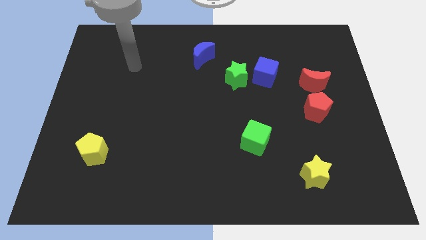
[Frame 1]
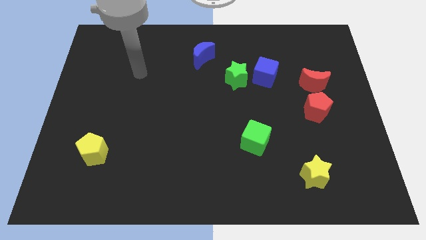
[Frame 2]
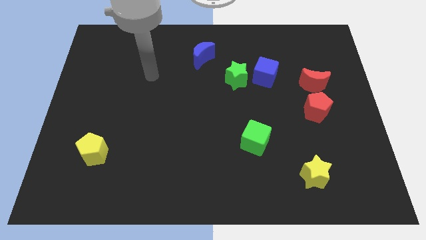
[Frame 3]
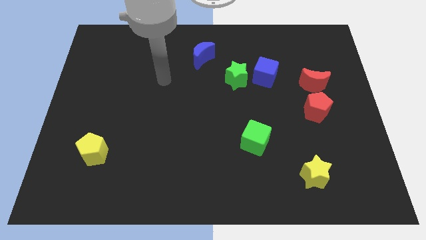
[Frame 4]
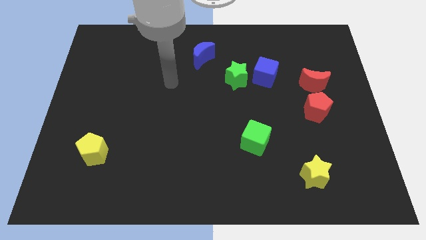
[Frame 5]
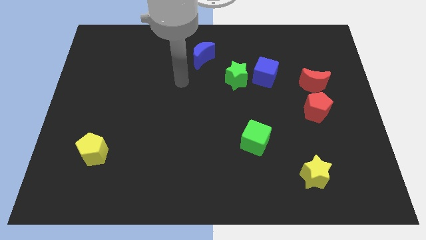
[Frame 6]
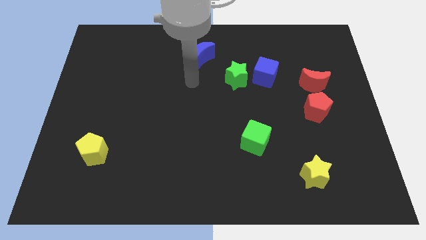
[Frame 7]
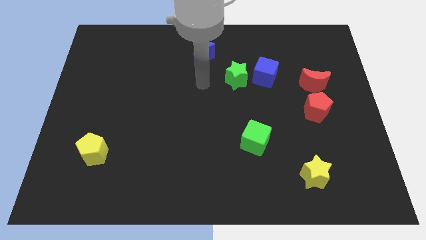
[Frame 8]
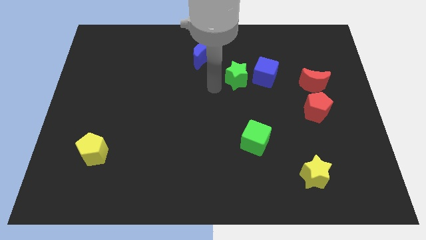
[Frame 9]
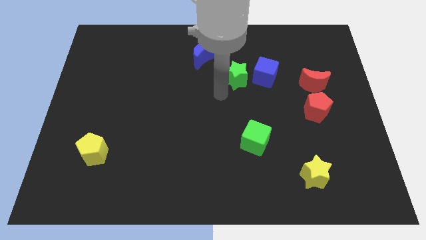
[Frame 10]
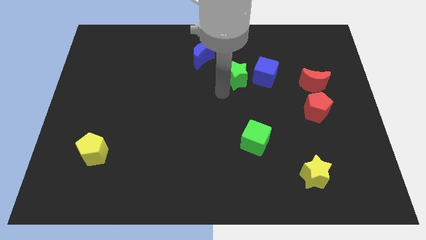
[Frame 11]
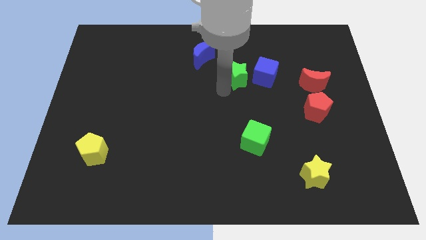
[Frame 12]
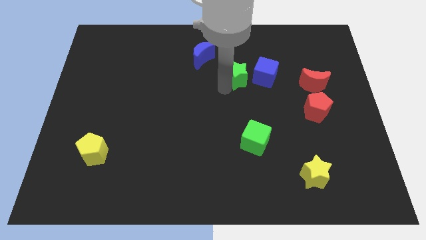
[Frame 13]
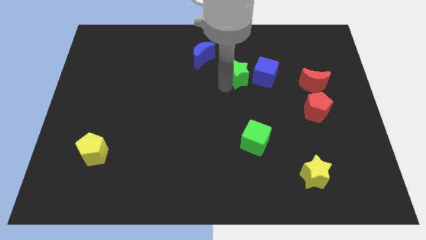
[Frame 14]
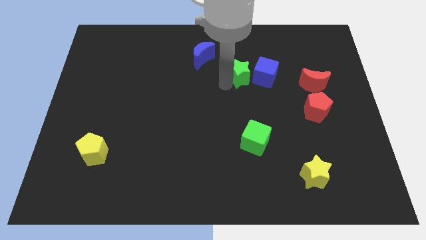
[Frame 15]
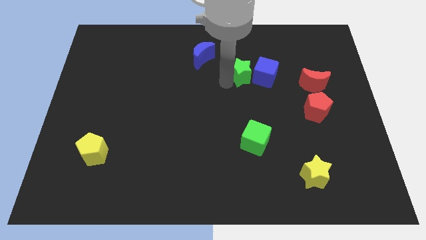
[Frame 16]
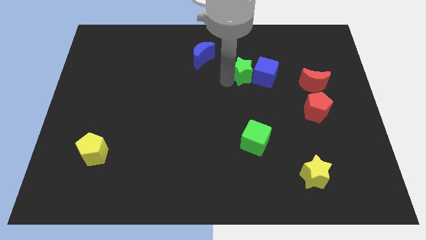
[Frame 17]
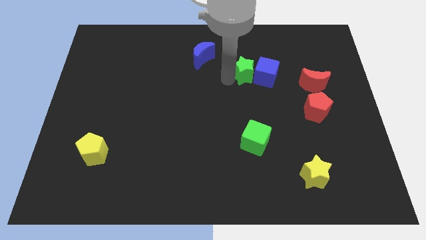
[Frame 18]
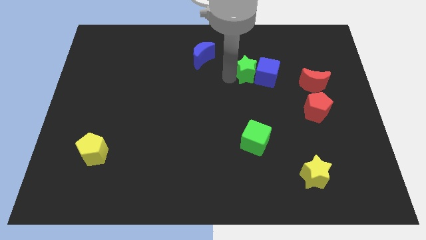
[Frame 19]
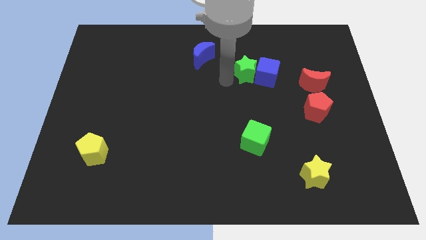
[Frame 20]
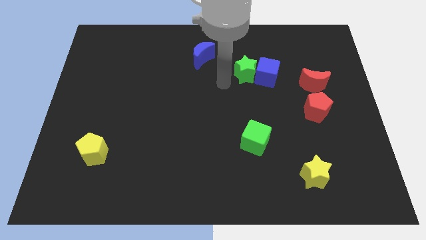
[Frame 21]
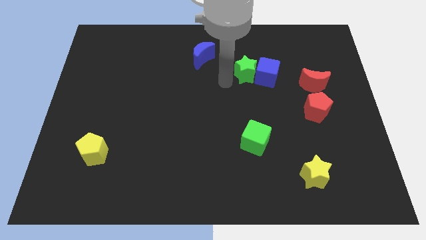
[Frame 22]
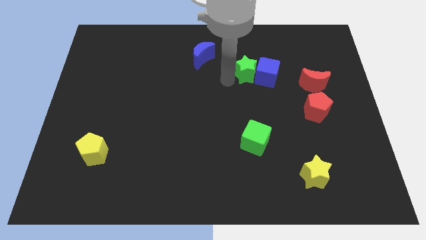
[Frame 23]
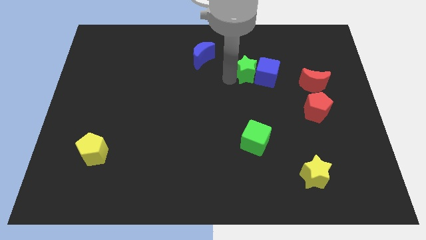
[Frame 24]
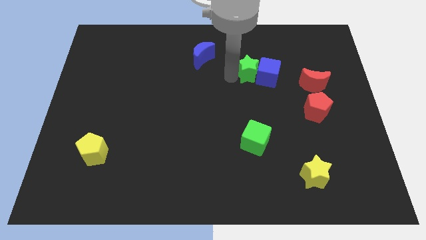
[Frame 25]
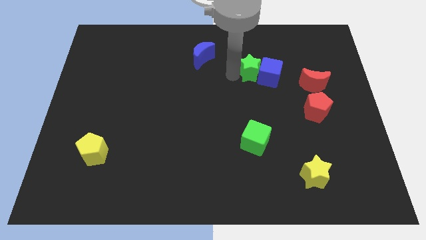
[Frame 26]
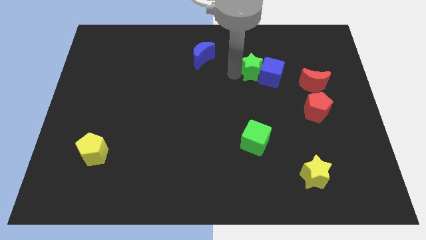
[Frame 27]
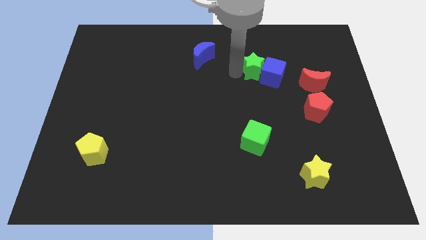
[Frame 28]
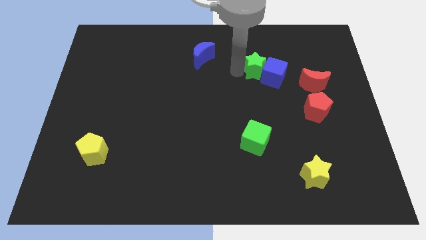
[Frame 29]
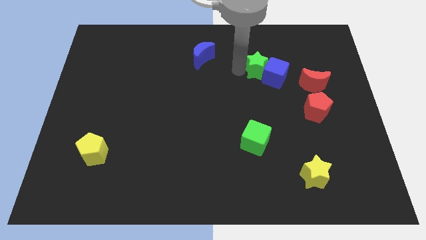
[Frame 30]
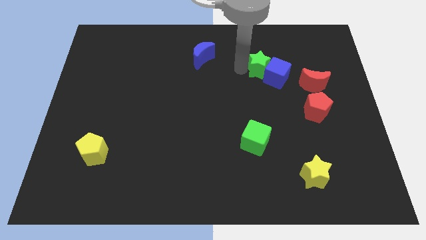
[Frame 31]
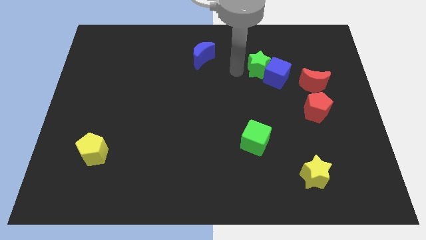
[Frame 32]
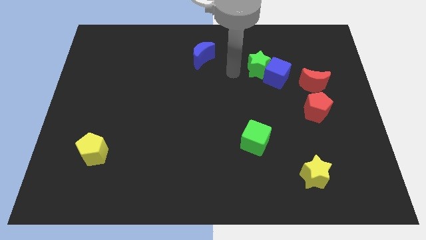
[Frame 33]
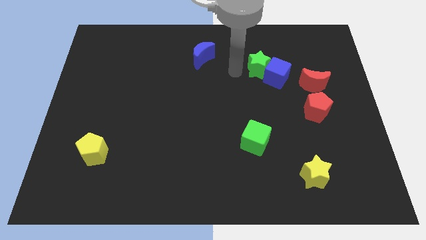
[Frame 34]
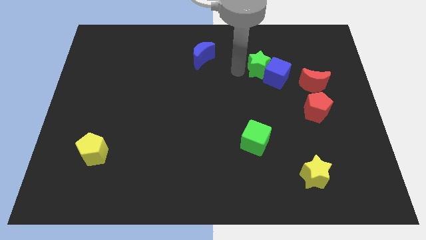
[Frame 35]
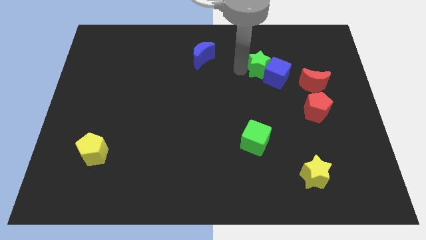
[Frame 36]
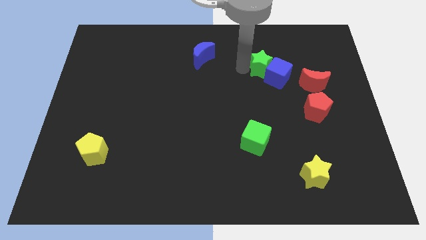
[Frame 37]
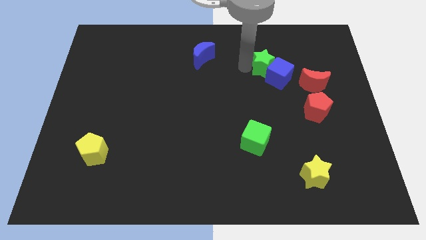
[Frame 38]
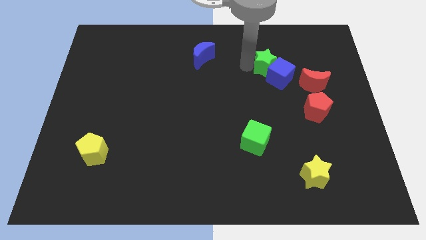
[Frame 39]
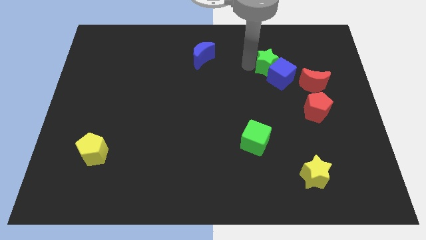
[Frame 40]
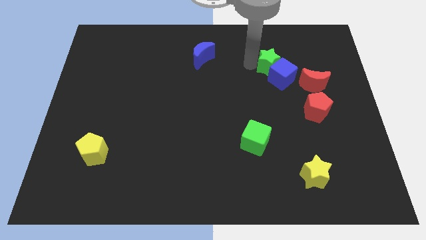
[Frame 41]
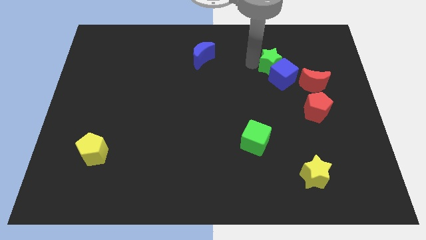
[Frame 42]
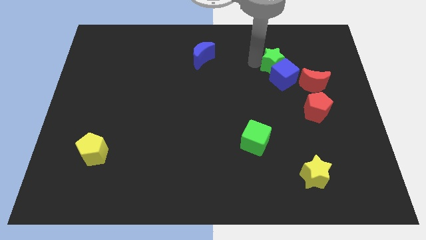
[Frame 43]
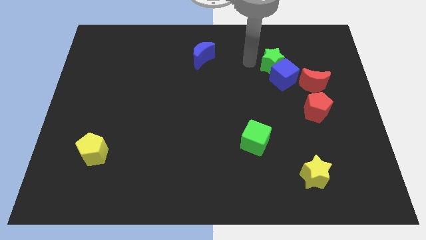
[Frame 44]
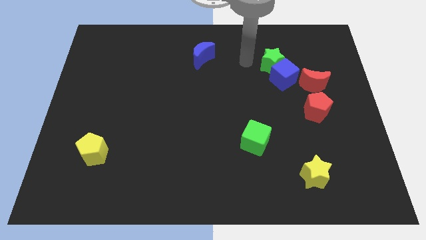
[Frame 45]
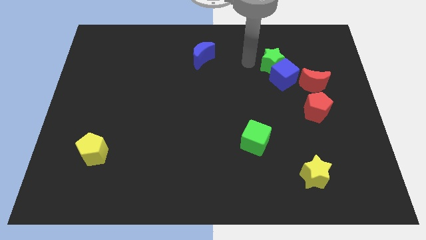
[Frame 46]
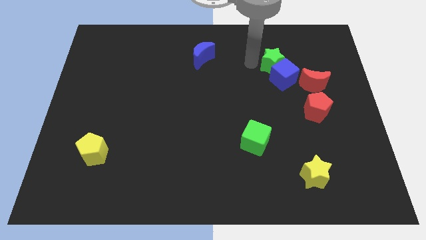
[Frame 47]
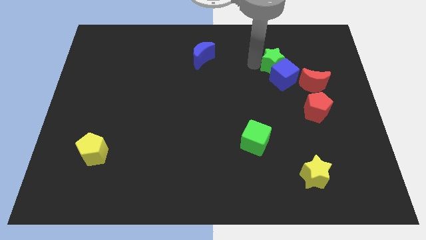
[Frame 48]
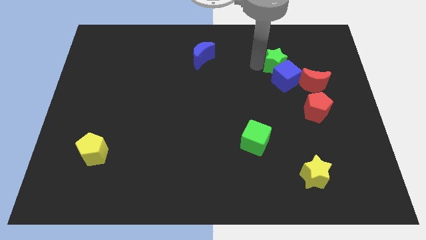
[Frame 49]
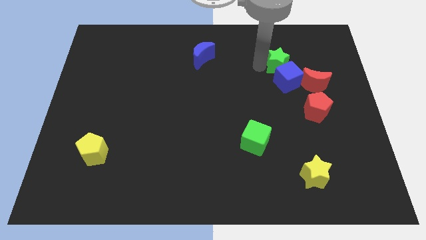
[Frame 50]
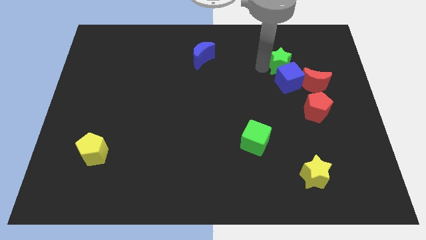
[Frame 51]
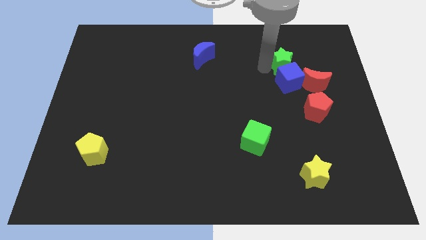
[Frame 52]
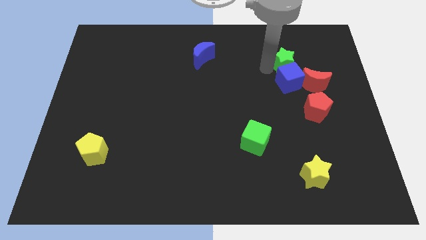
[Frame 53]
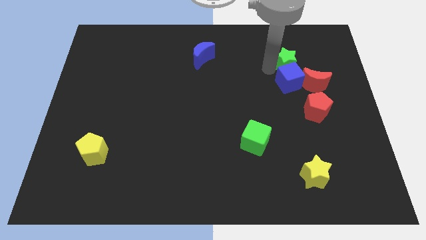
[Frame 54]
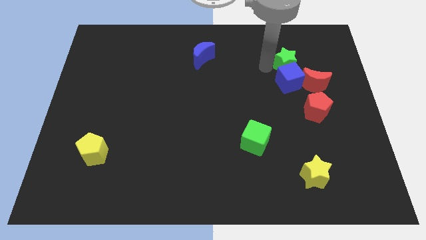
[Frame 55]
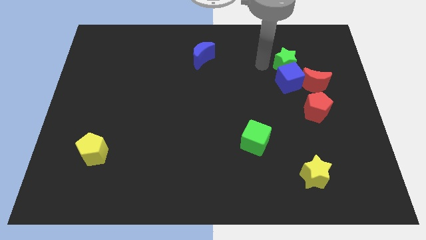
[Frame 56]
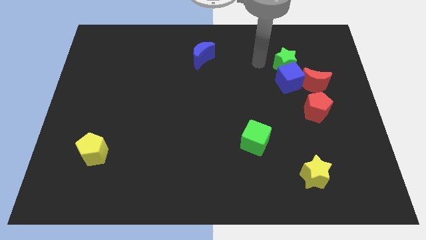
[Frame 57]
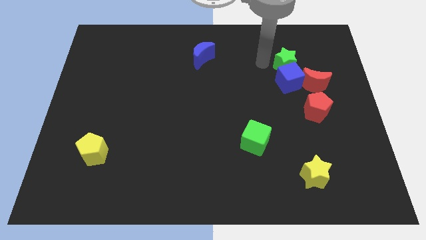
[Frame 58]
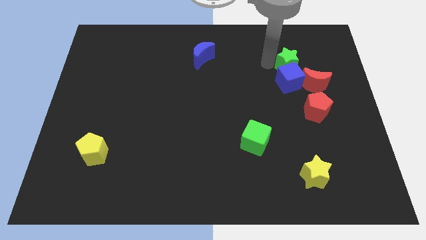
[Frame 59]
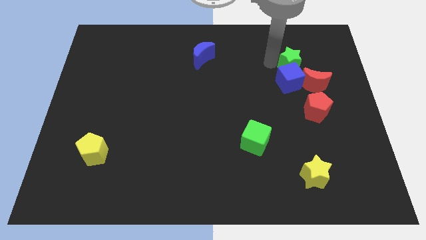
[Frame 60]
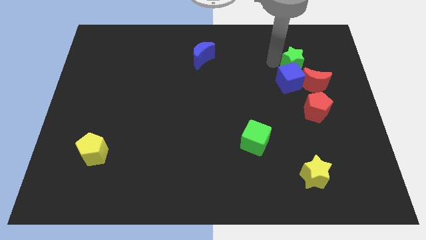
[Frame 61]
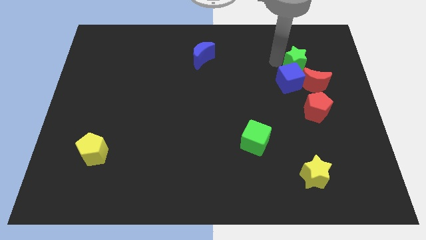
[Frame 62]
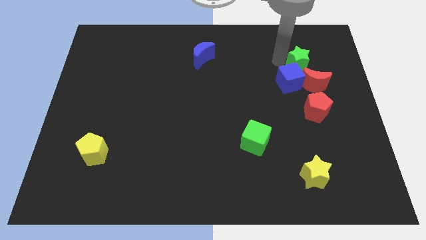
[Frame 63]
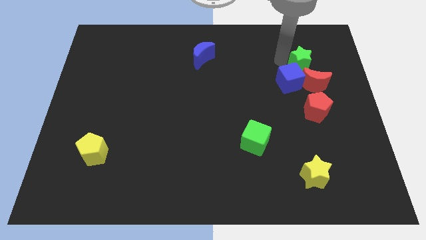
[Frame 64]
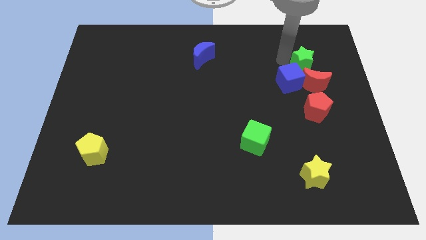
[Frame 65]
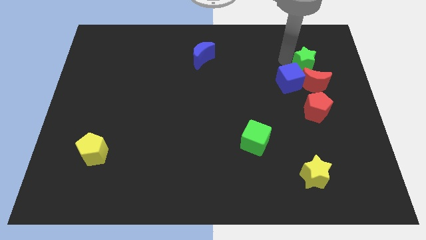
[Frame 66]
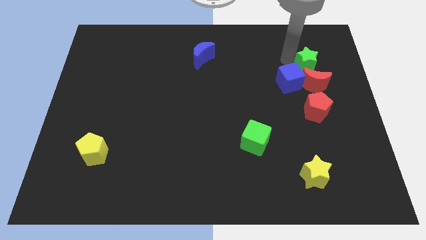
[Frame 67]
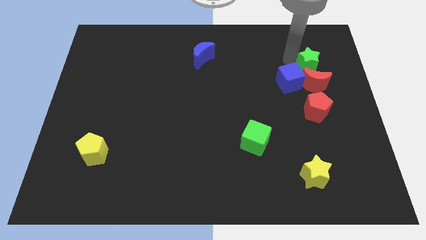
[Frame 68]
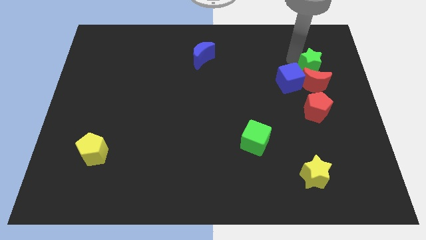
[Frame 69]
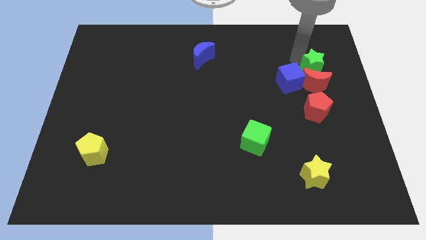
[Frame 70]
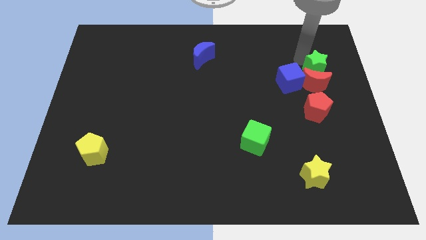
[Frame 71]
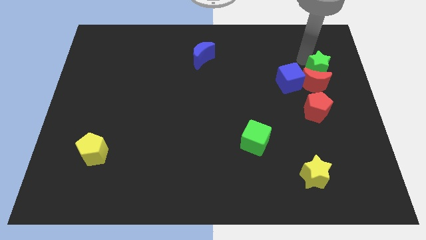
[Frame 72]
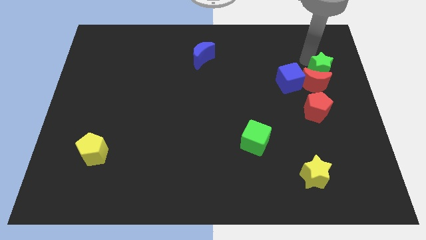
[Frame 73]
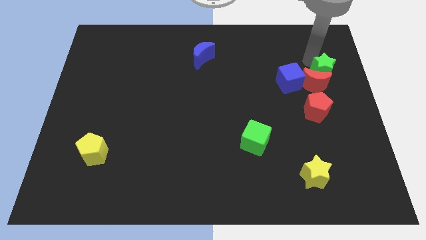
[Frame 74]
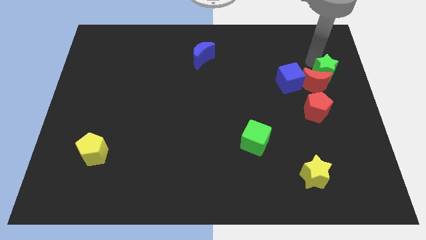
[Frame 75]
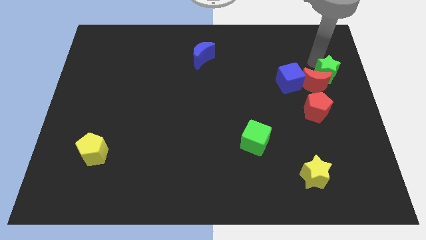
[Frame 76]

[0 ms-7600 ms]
move the green star to the center right
